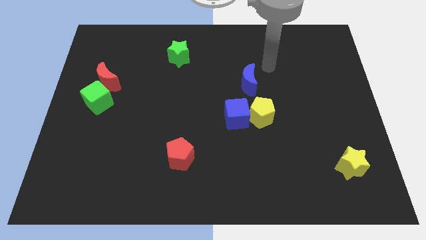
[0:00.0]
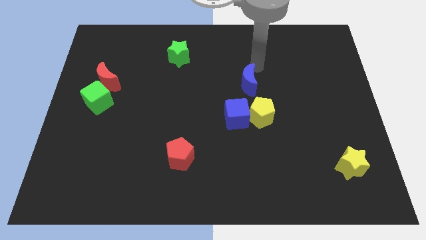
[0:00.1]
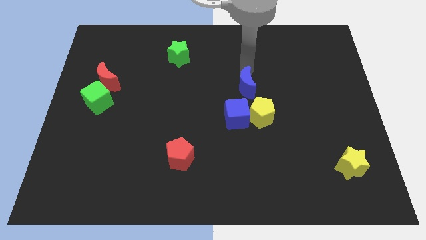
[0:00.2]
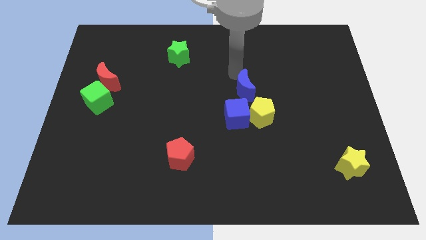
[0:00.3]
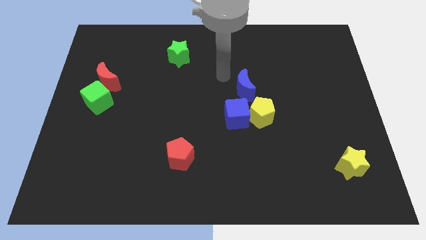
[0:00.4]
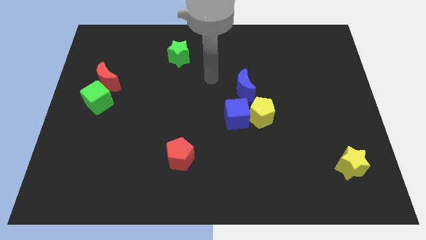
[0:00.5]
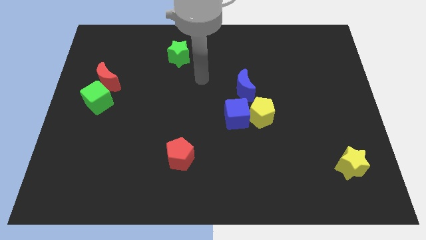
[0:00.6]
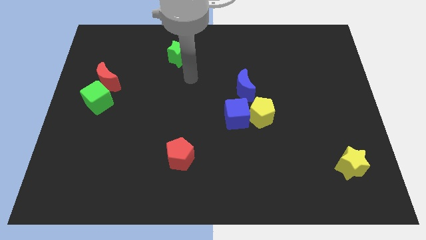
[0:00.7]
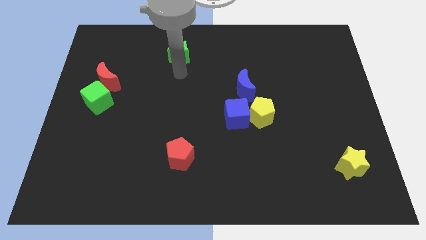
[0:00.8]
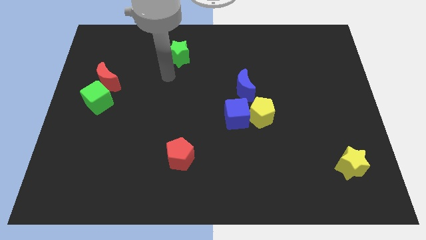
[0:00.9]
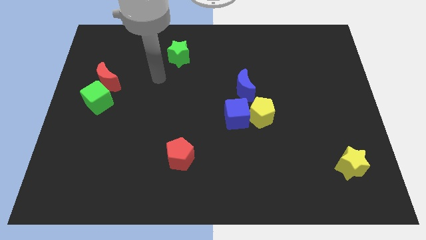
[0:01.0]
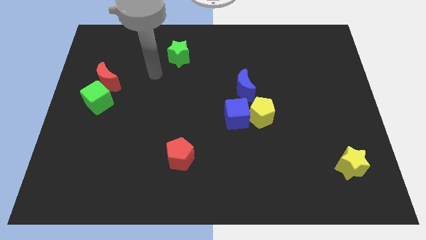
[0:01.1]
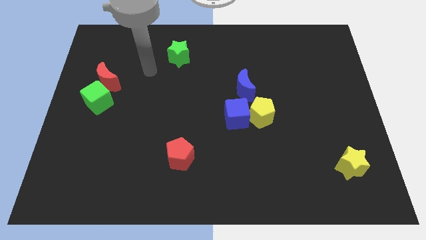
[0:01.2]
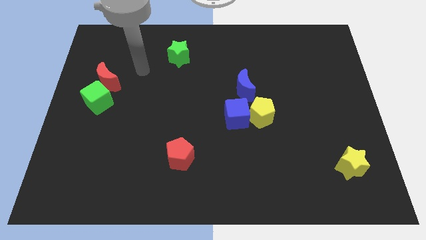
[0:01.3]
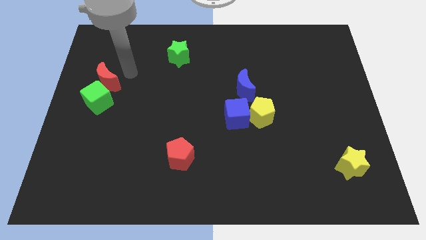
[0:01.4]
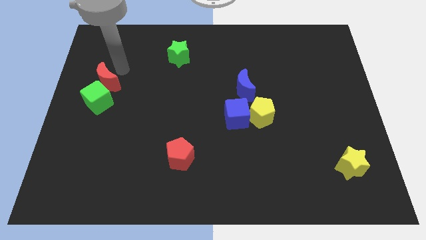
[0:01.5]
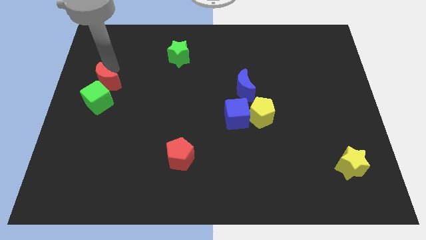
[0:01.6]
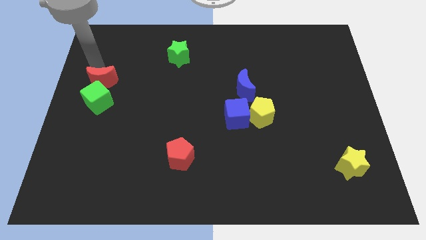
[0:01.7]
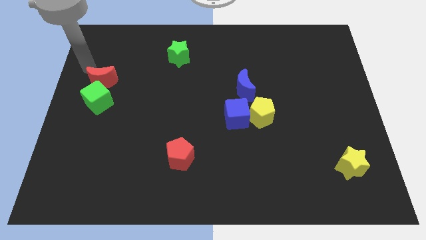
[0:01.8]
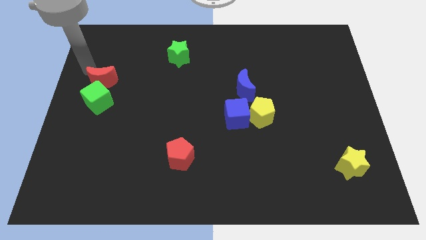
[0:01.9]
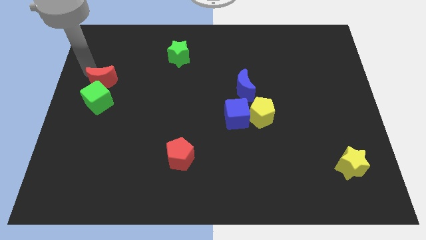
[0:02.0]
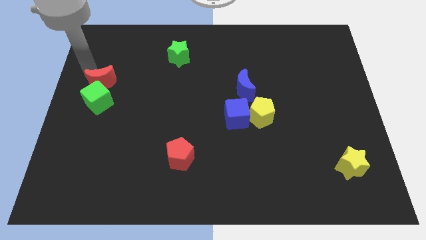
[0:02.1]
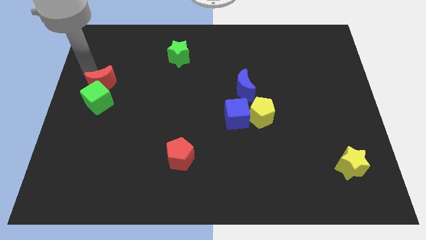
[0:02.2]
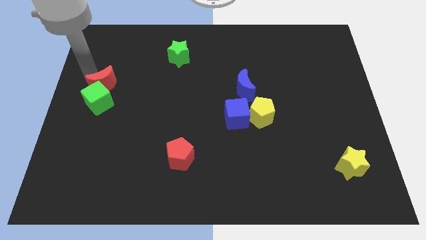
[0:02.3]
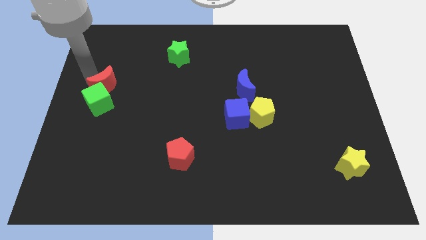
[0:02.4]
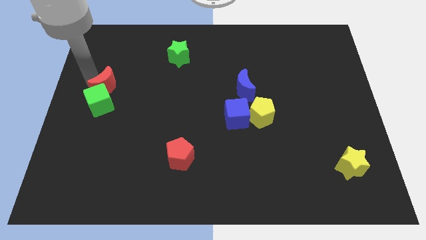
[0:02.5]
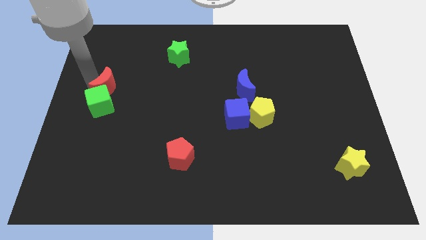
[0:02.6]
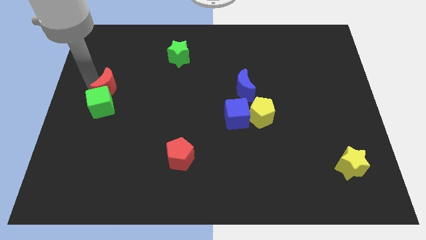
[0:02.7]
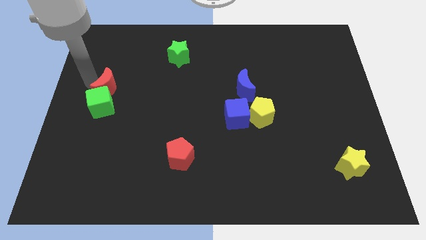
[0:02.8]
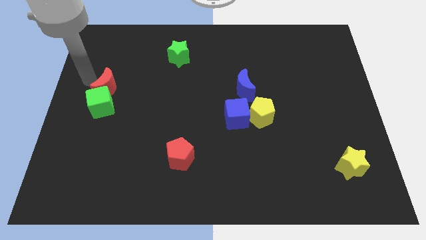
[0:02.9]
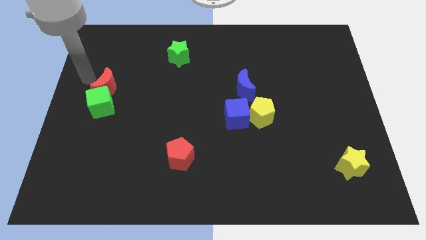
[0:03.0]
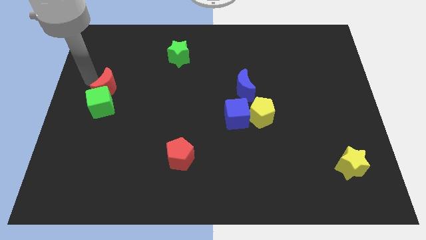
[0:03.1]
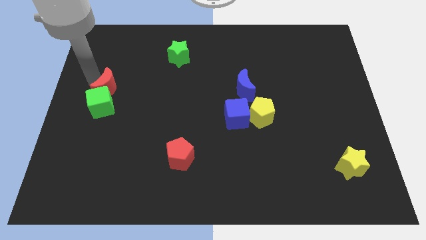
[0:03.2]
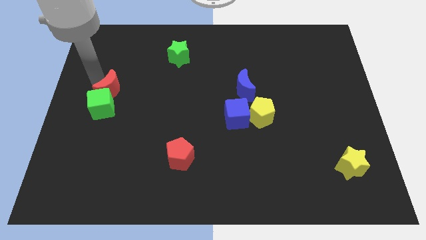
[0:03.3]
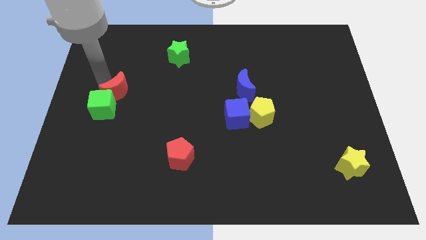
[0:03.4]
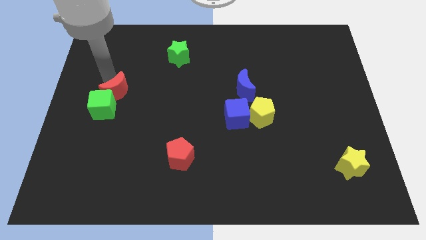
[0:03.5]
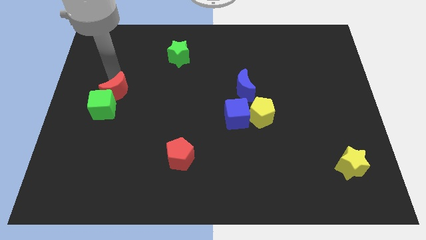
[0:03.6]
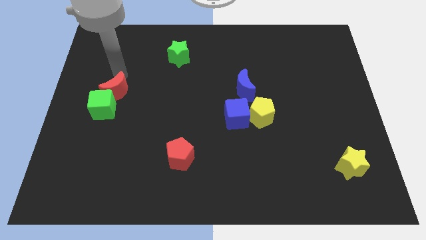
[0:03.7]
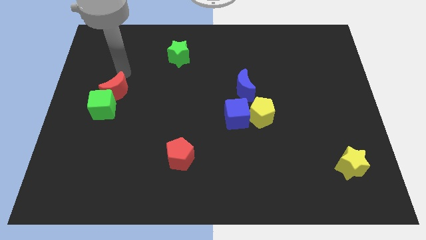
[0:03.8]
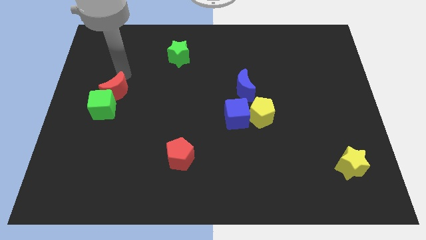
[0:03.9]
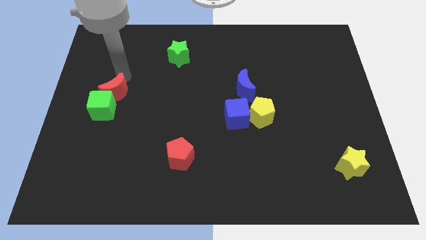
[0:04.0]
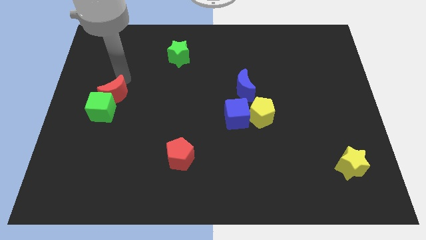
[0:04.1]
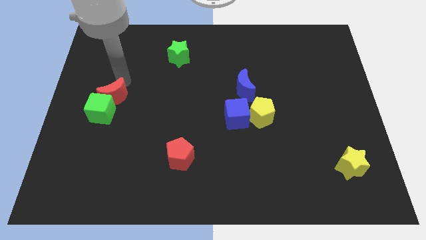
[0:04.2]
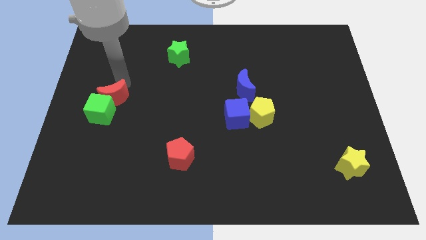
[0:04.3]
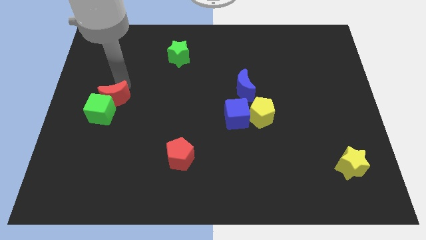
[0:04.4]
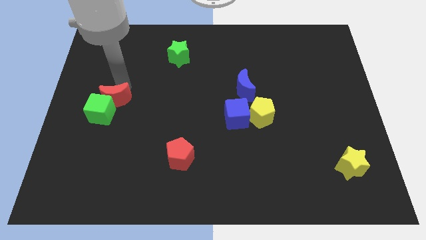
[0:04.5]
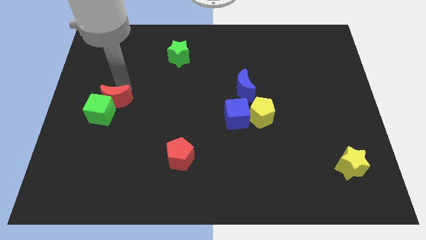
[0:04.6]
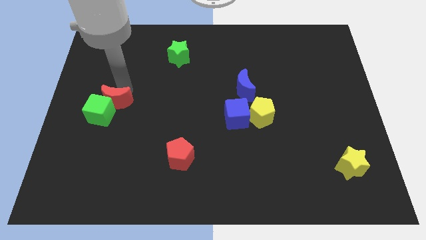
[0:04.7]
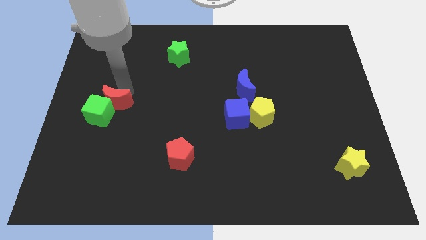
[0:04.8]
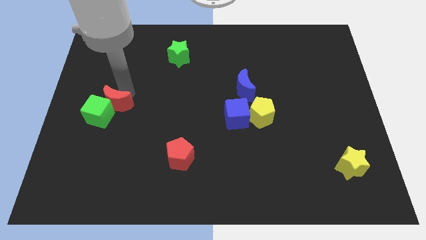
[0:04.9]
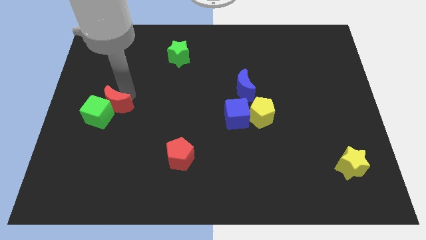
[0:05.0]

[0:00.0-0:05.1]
slightly move the red moon down

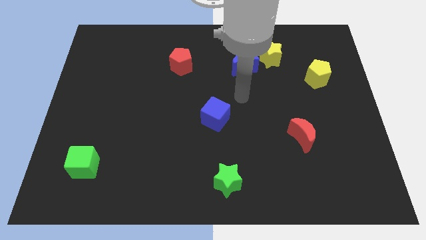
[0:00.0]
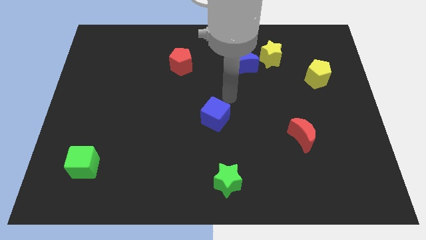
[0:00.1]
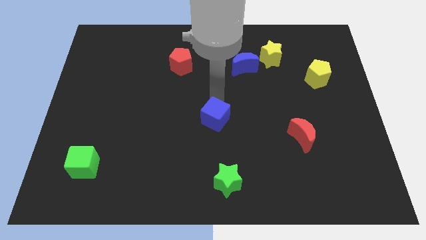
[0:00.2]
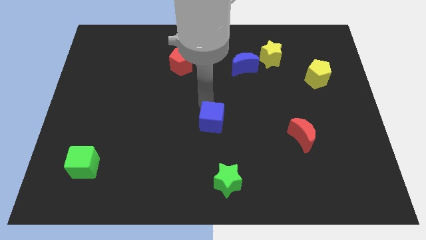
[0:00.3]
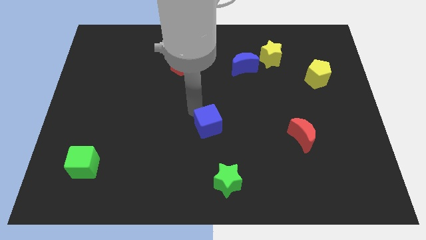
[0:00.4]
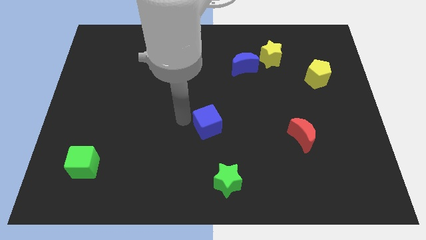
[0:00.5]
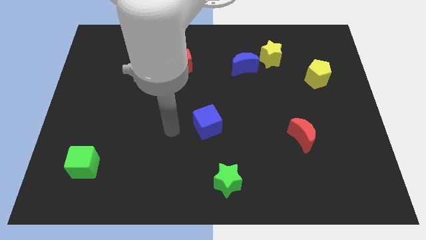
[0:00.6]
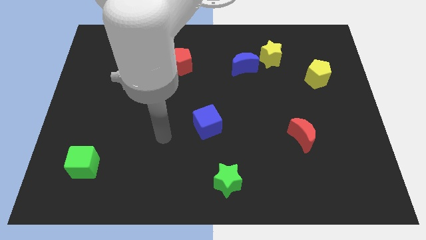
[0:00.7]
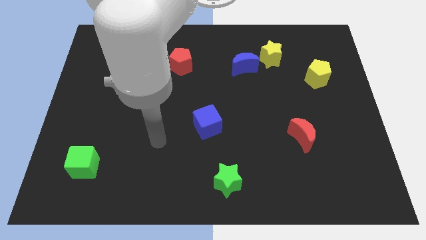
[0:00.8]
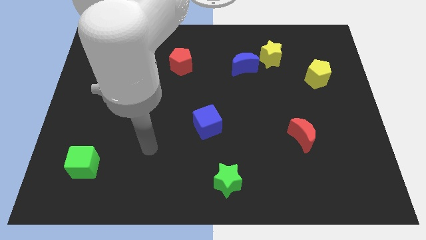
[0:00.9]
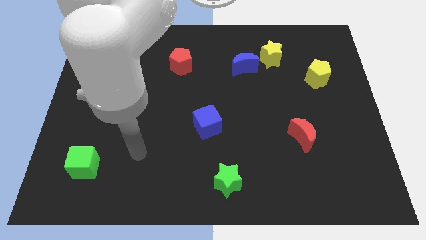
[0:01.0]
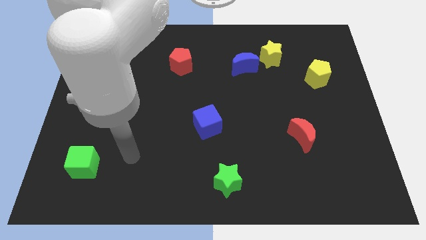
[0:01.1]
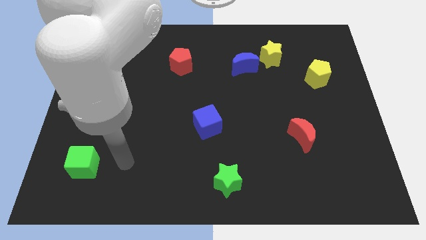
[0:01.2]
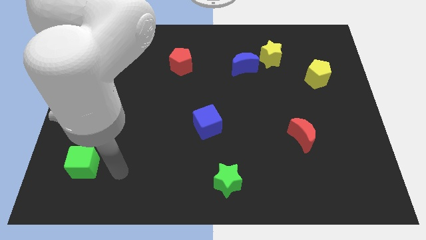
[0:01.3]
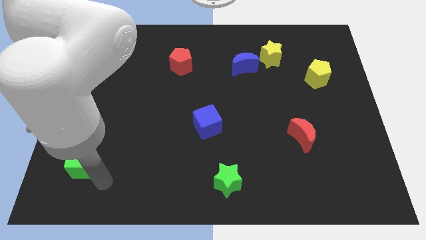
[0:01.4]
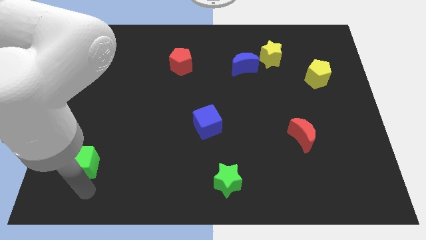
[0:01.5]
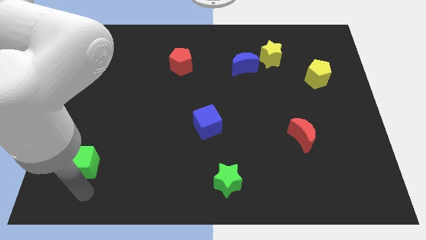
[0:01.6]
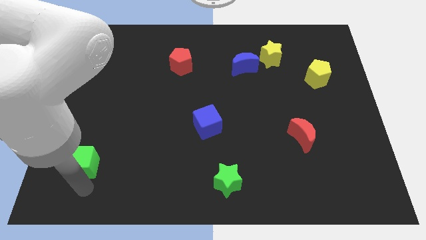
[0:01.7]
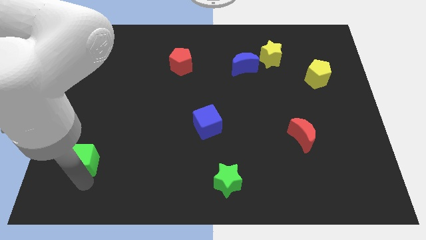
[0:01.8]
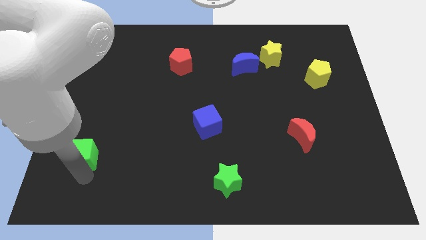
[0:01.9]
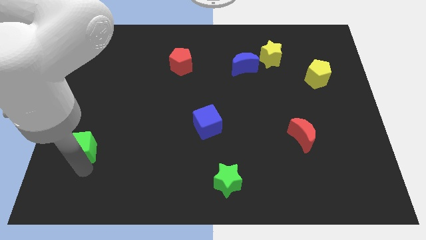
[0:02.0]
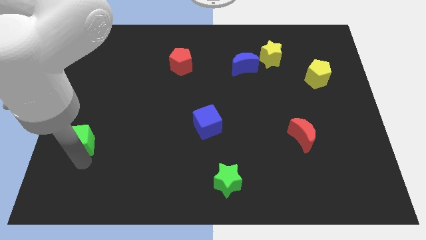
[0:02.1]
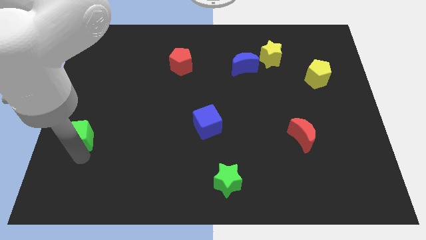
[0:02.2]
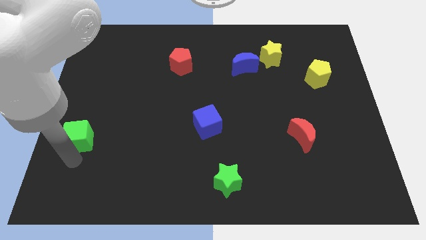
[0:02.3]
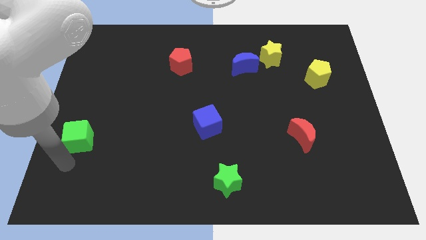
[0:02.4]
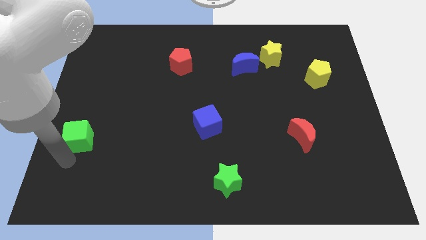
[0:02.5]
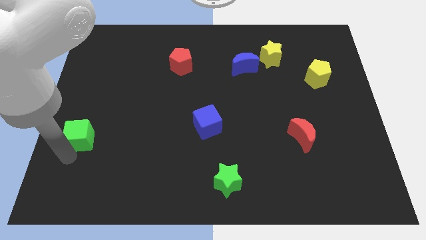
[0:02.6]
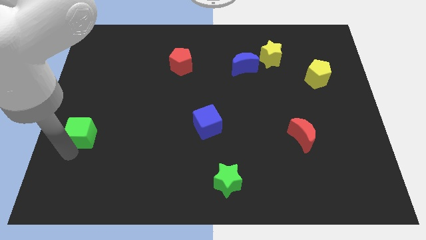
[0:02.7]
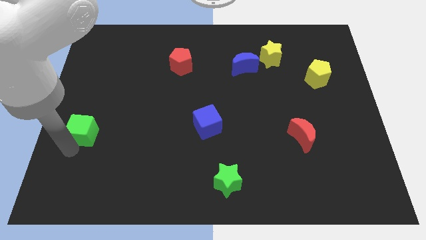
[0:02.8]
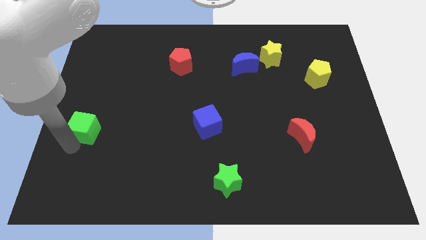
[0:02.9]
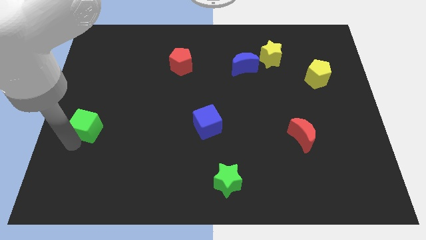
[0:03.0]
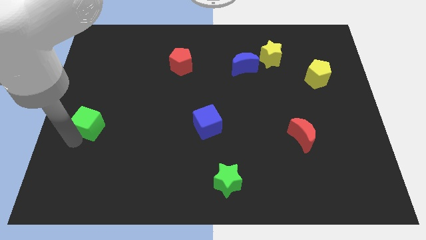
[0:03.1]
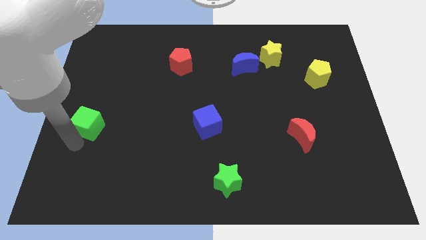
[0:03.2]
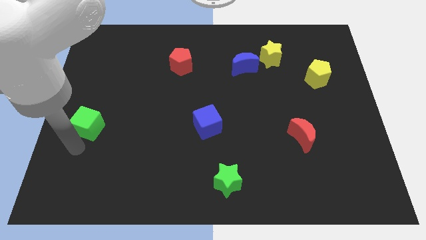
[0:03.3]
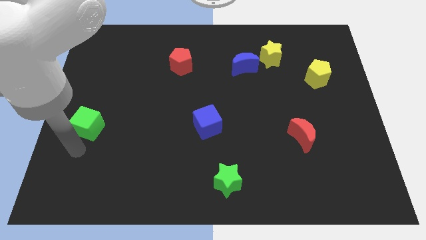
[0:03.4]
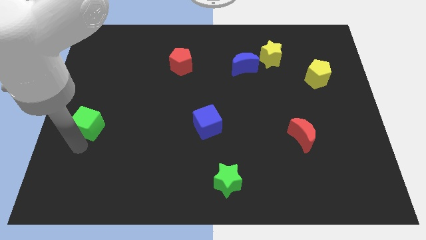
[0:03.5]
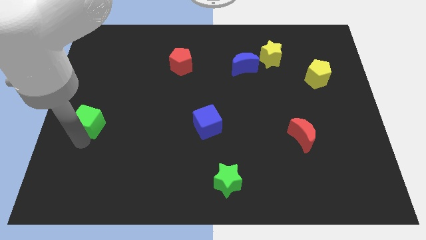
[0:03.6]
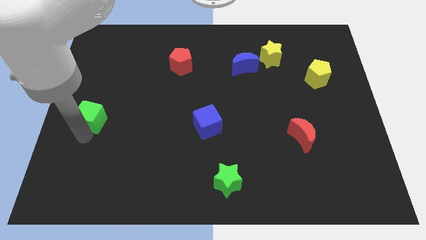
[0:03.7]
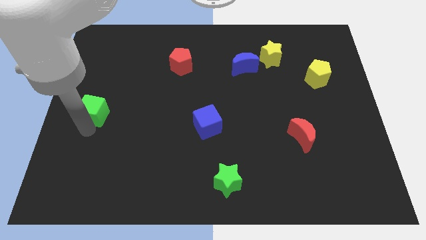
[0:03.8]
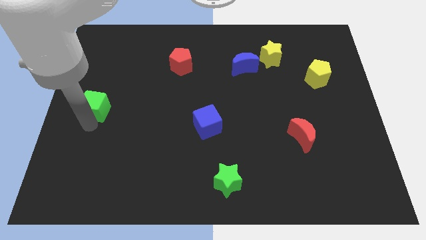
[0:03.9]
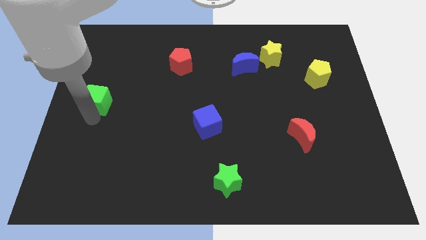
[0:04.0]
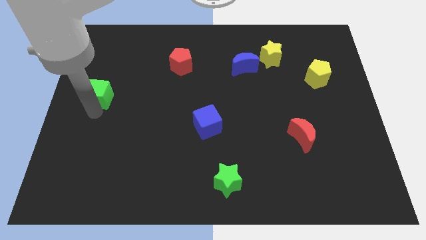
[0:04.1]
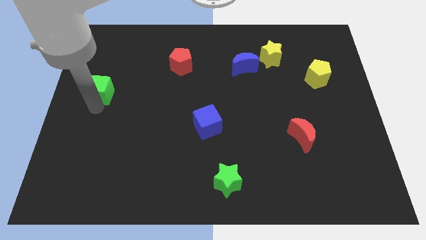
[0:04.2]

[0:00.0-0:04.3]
move the green cube up
